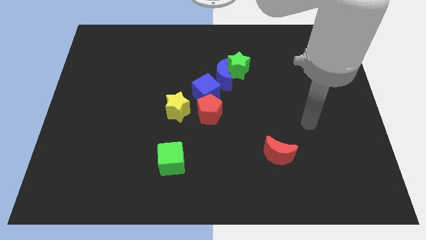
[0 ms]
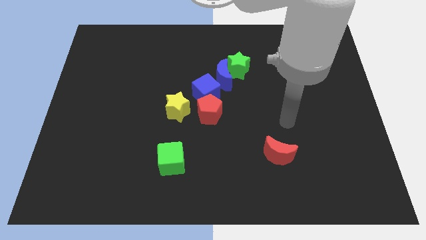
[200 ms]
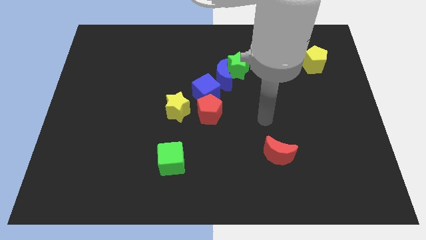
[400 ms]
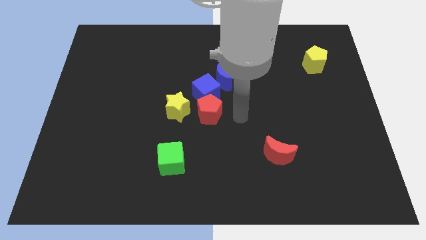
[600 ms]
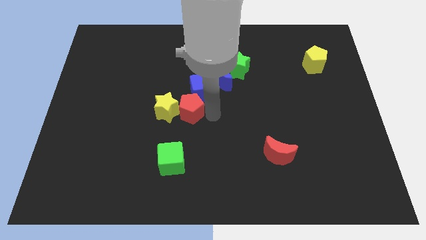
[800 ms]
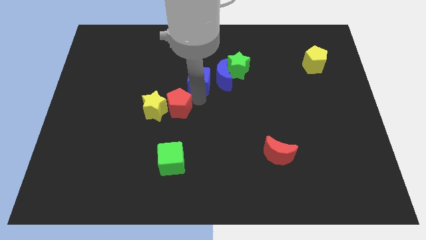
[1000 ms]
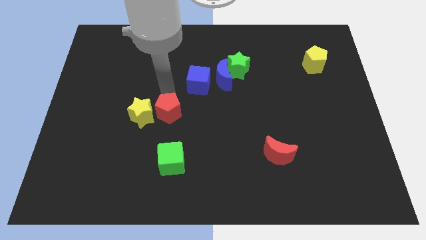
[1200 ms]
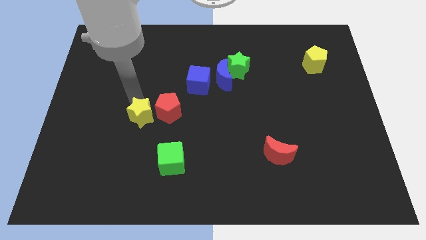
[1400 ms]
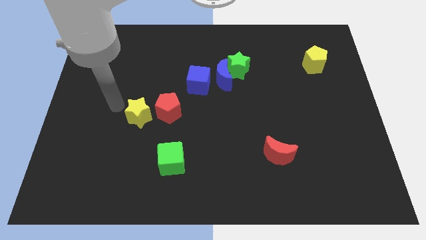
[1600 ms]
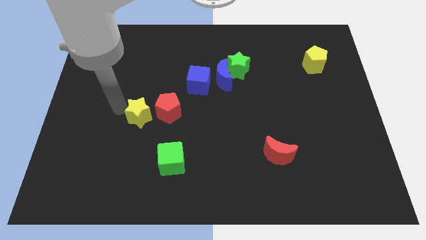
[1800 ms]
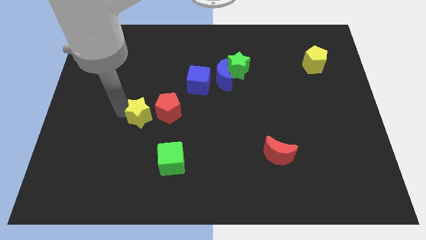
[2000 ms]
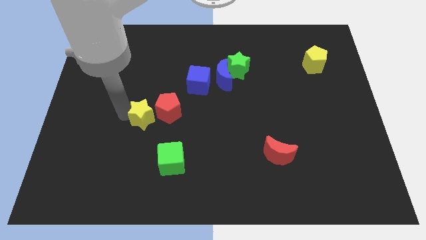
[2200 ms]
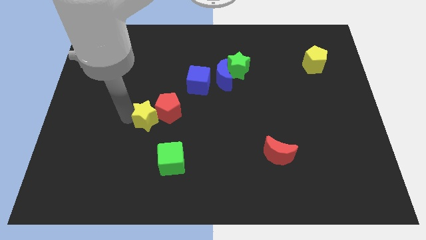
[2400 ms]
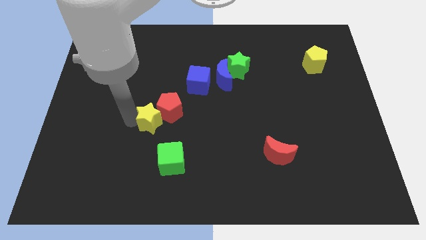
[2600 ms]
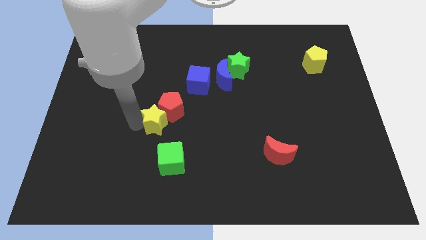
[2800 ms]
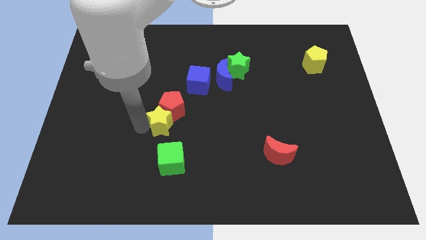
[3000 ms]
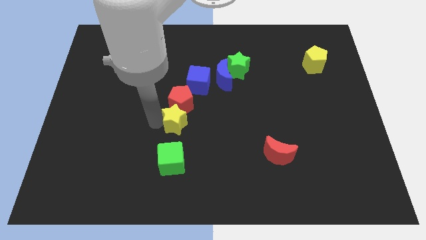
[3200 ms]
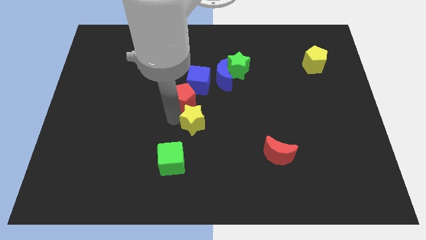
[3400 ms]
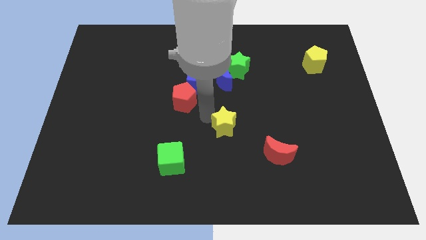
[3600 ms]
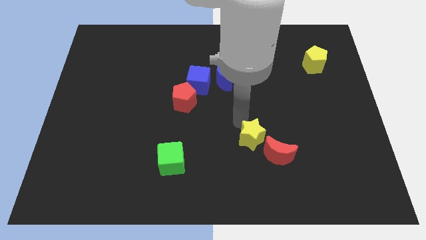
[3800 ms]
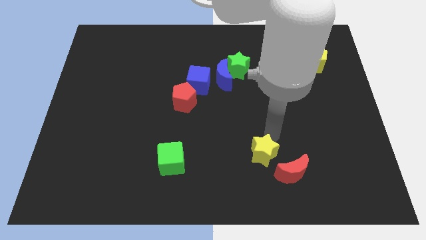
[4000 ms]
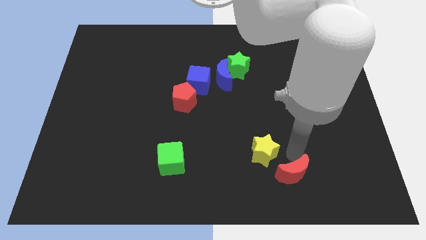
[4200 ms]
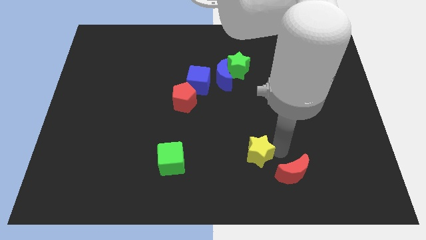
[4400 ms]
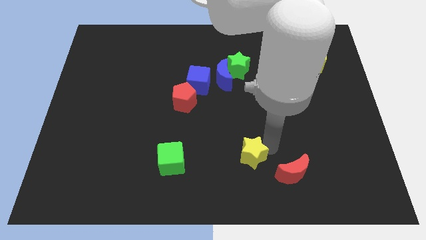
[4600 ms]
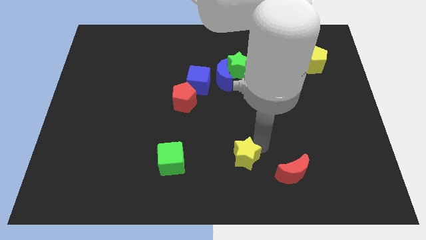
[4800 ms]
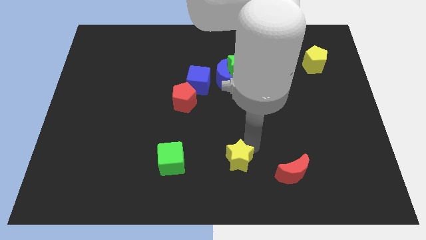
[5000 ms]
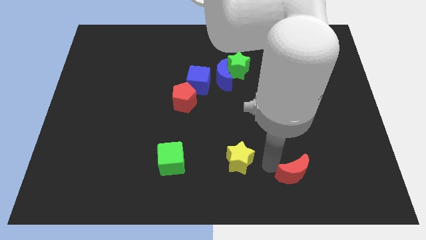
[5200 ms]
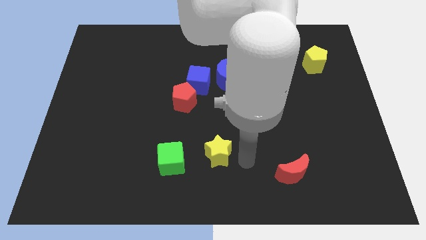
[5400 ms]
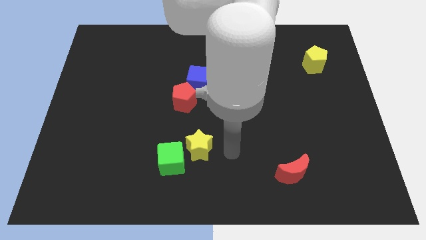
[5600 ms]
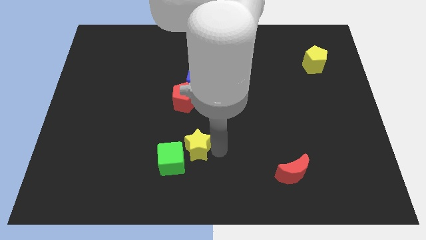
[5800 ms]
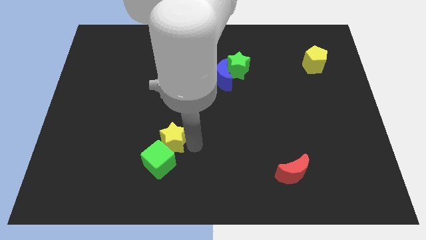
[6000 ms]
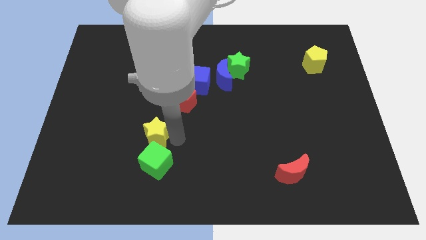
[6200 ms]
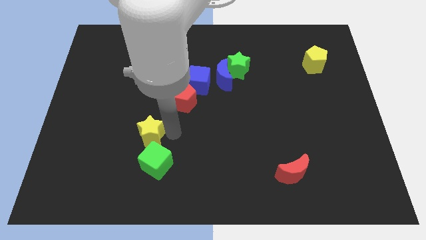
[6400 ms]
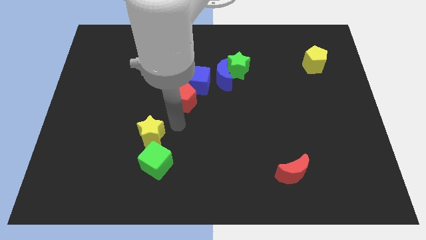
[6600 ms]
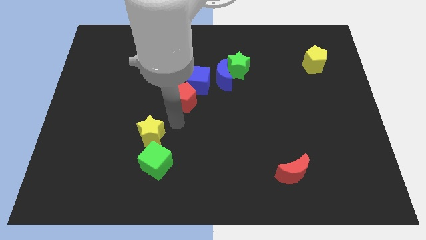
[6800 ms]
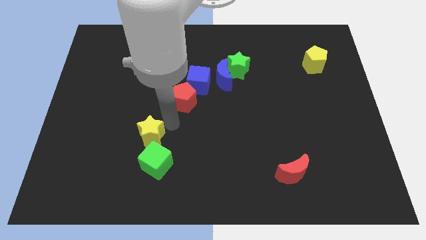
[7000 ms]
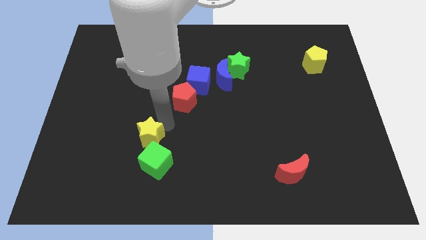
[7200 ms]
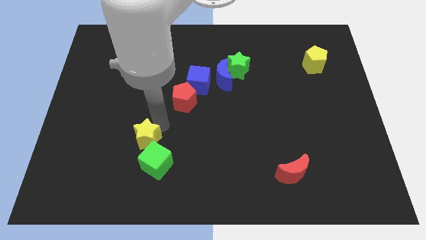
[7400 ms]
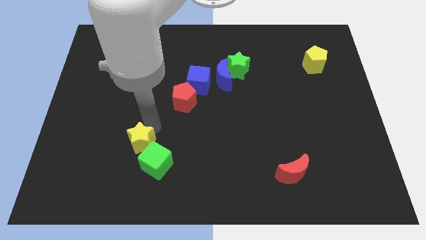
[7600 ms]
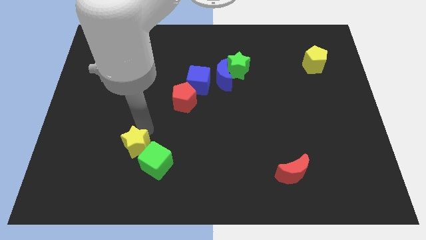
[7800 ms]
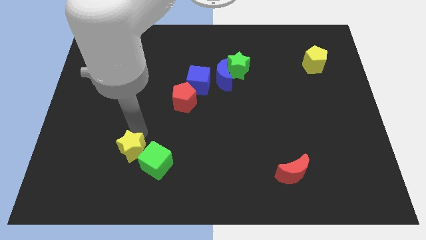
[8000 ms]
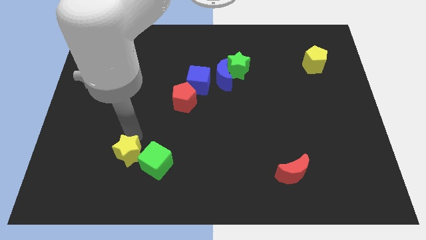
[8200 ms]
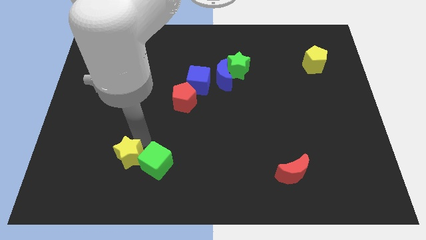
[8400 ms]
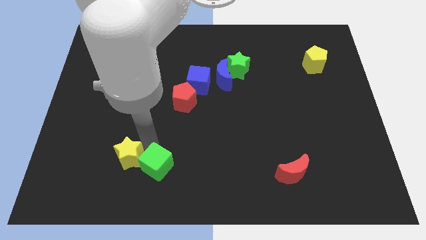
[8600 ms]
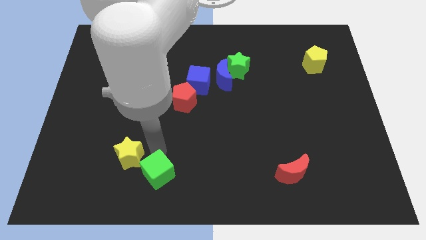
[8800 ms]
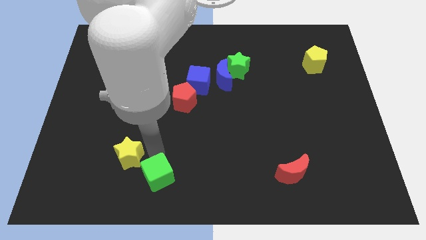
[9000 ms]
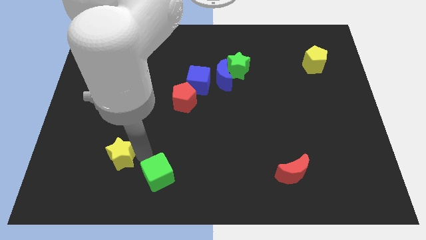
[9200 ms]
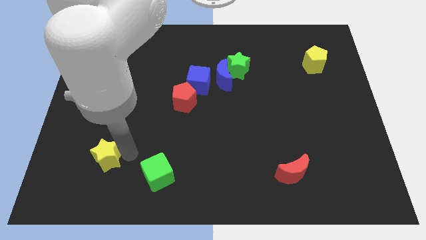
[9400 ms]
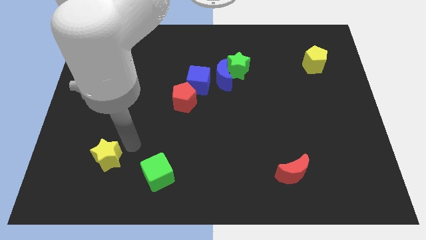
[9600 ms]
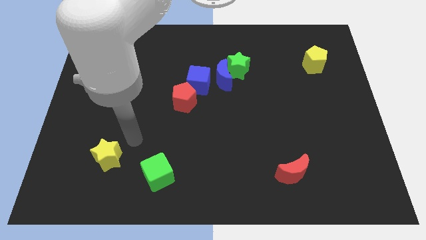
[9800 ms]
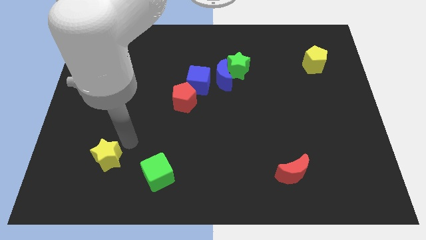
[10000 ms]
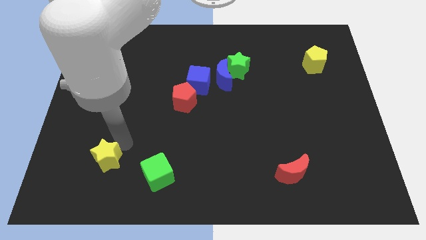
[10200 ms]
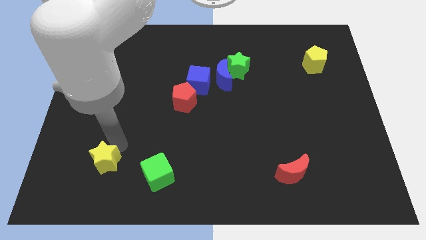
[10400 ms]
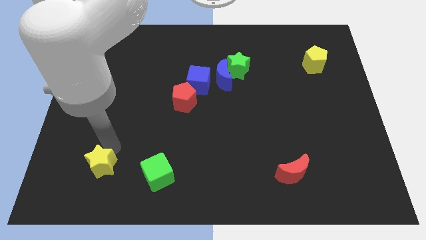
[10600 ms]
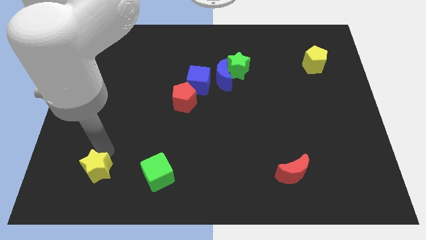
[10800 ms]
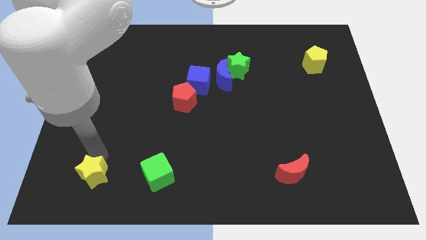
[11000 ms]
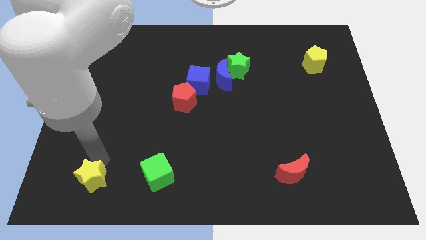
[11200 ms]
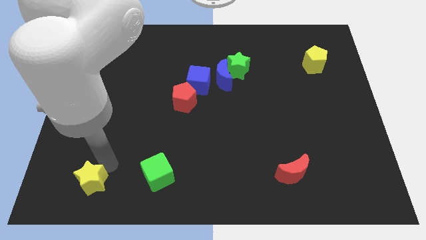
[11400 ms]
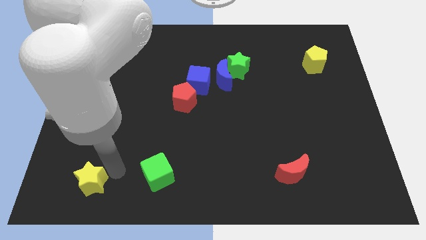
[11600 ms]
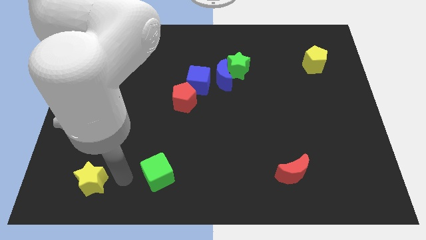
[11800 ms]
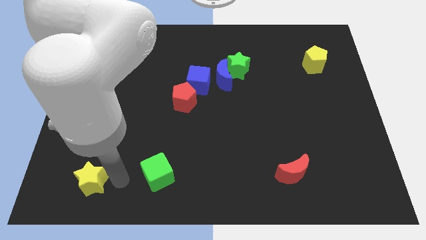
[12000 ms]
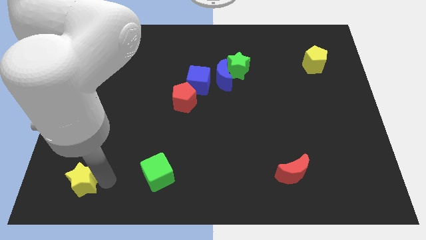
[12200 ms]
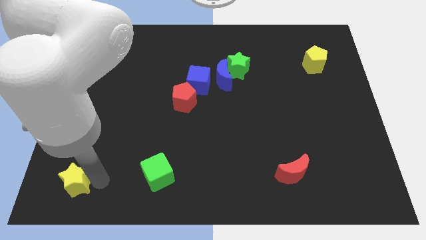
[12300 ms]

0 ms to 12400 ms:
slide the yellow star to the bottom left

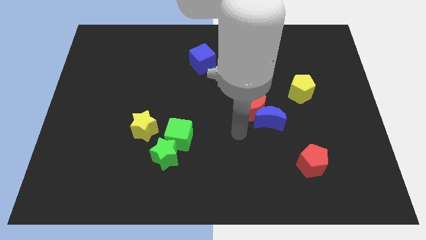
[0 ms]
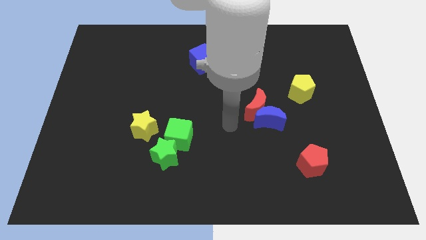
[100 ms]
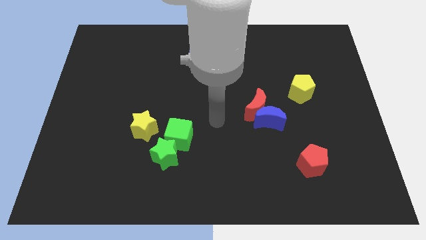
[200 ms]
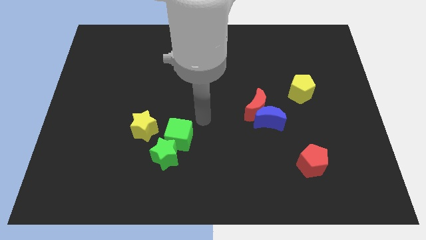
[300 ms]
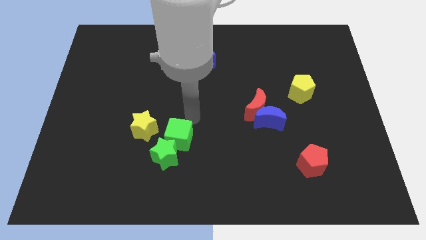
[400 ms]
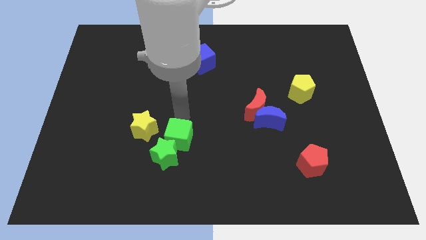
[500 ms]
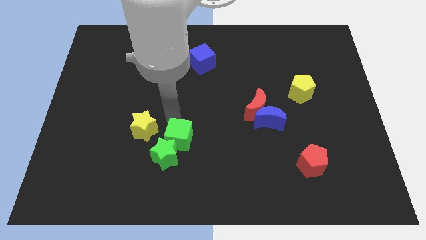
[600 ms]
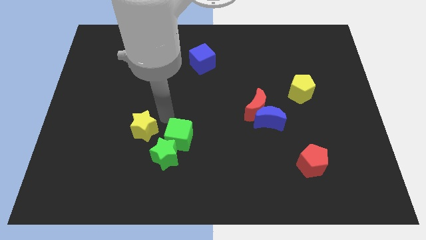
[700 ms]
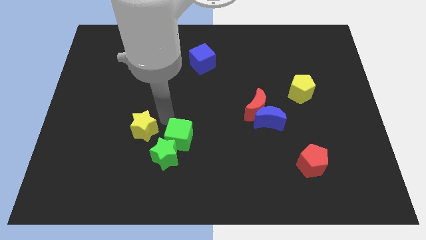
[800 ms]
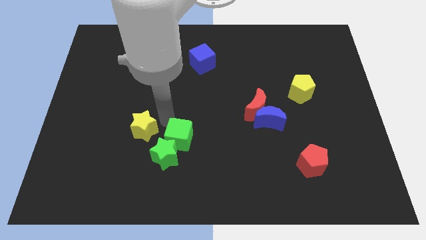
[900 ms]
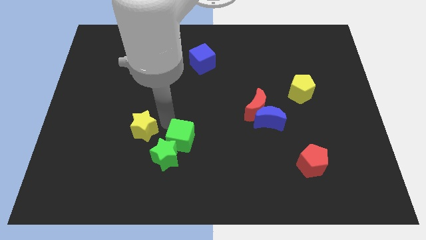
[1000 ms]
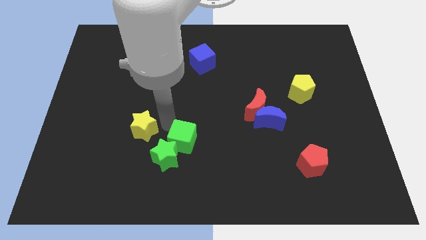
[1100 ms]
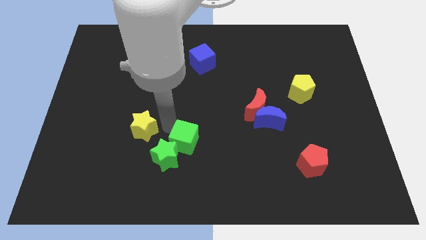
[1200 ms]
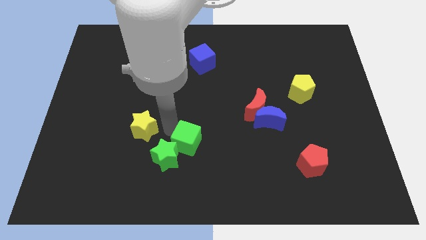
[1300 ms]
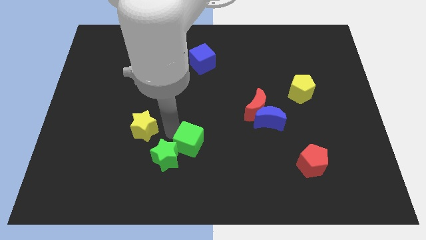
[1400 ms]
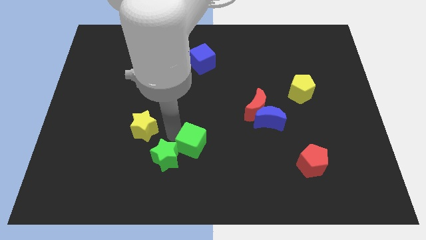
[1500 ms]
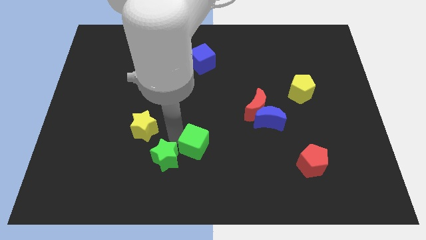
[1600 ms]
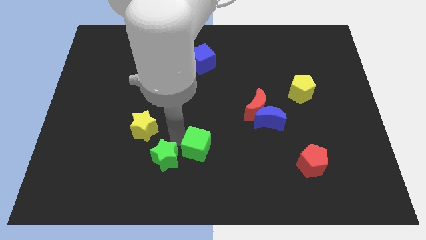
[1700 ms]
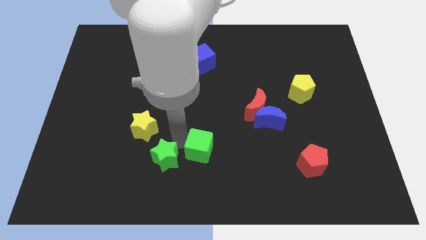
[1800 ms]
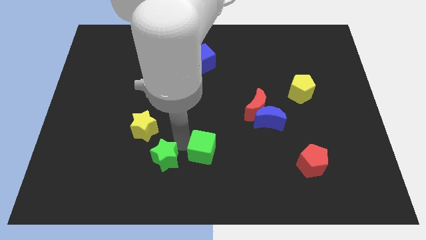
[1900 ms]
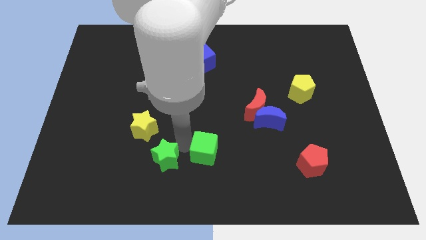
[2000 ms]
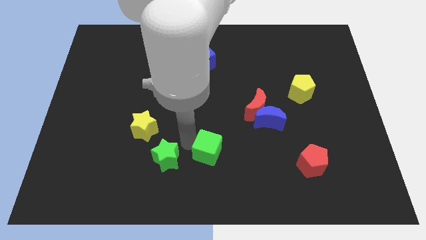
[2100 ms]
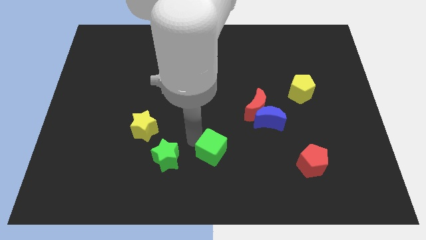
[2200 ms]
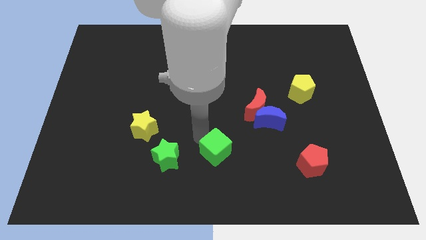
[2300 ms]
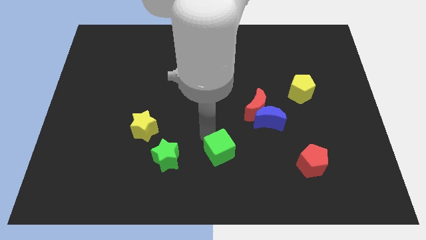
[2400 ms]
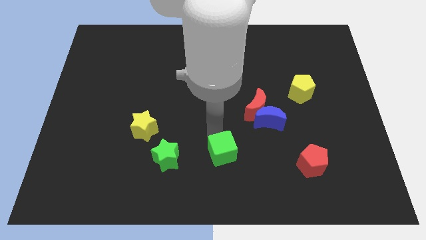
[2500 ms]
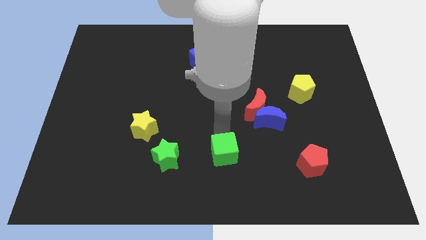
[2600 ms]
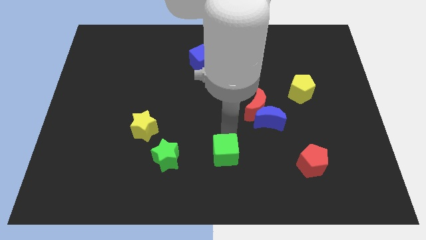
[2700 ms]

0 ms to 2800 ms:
push the green cube to the bottom side
